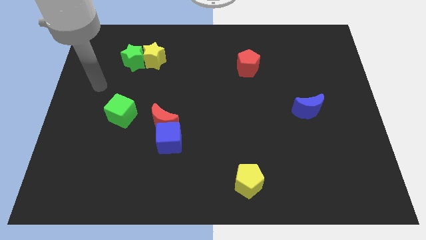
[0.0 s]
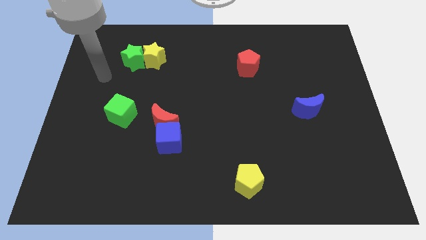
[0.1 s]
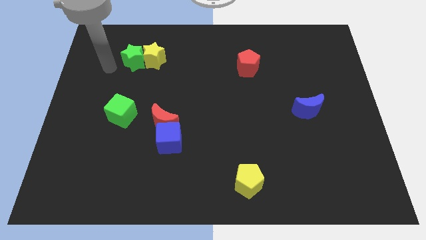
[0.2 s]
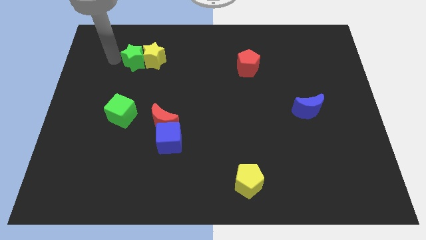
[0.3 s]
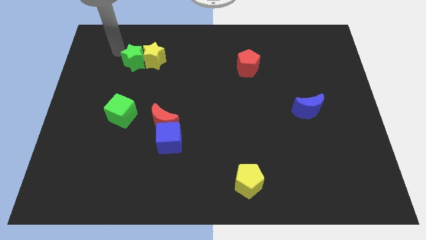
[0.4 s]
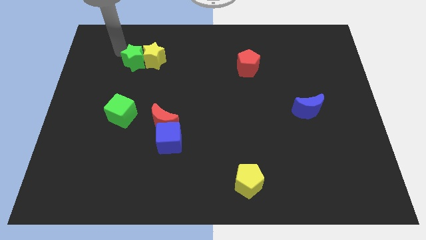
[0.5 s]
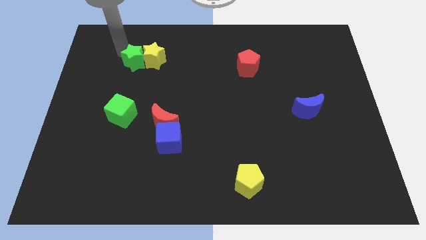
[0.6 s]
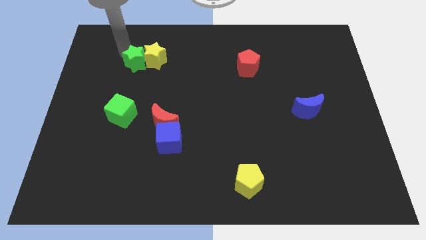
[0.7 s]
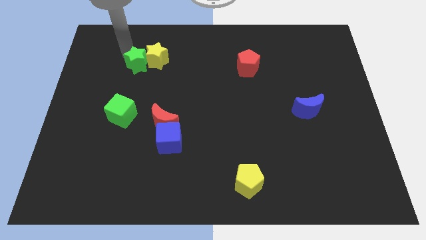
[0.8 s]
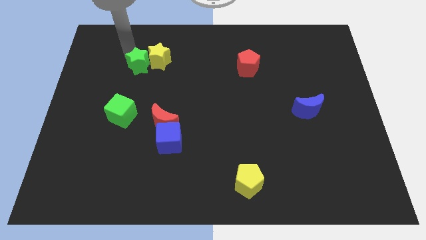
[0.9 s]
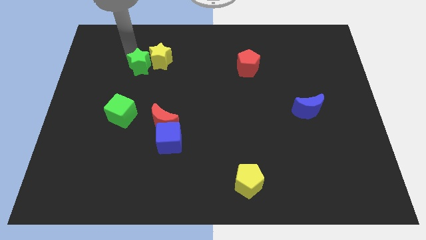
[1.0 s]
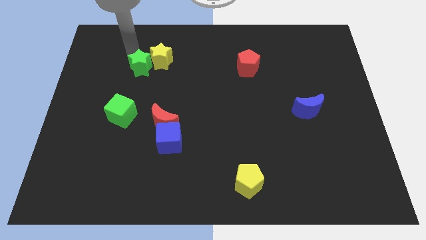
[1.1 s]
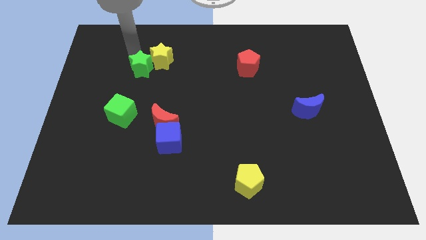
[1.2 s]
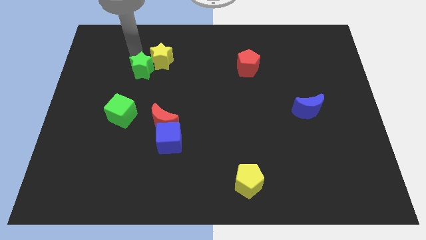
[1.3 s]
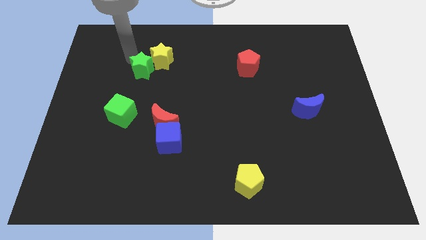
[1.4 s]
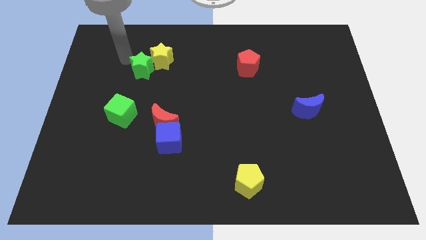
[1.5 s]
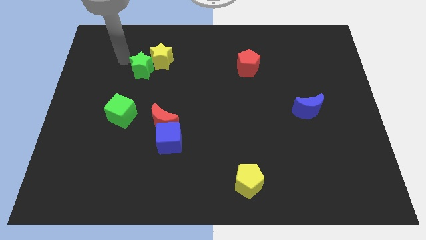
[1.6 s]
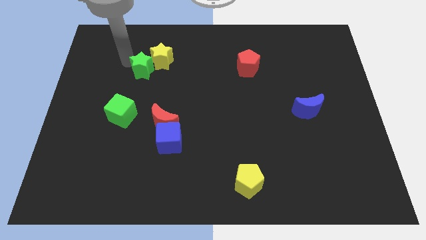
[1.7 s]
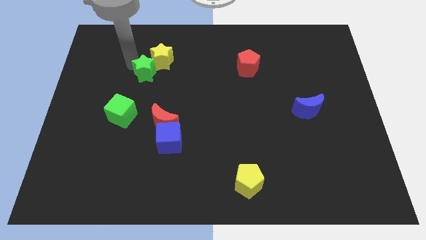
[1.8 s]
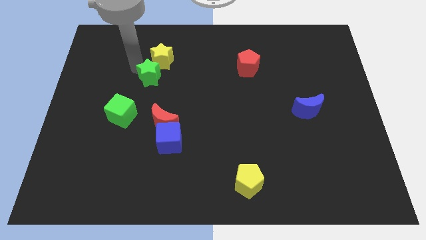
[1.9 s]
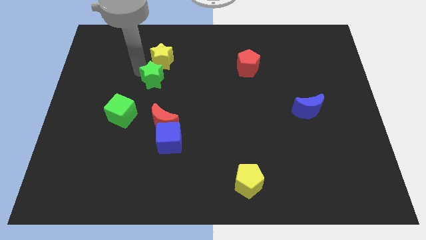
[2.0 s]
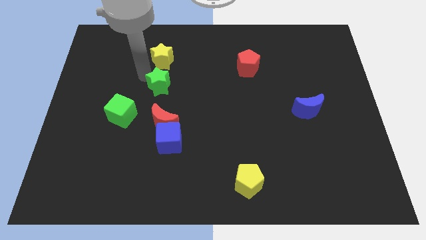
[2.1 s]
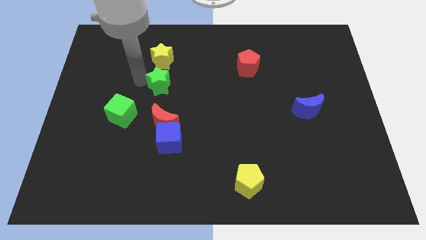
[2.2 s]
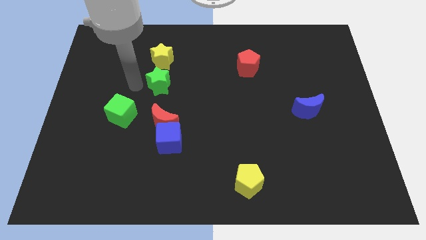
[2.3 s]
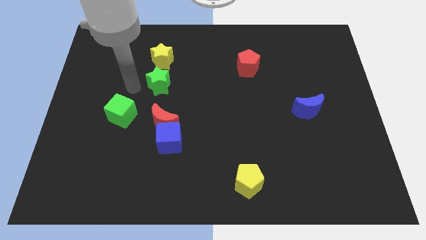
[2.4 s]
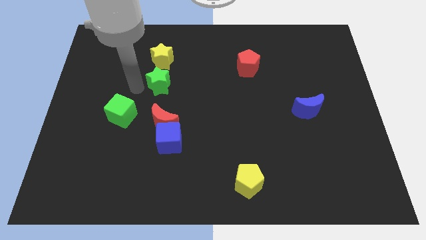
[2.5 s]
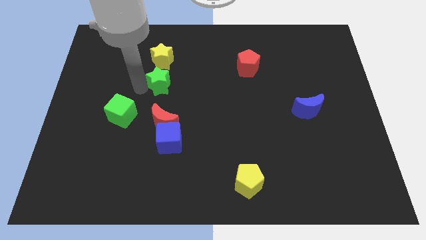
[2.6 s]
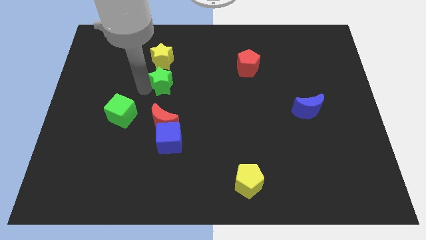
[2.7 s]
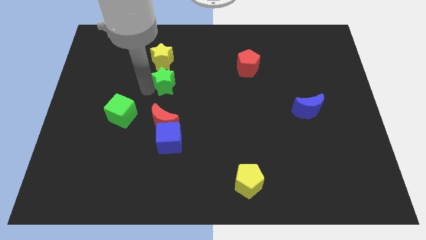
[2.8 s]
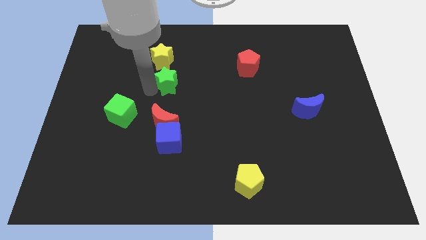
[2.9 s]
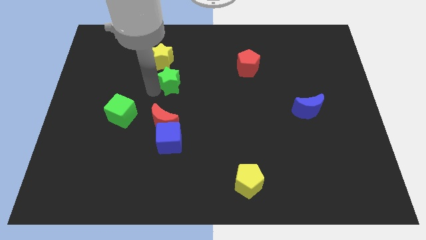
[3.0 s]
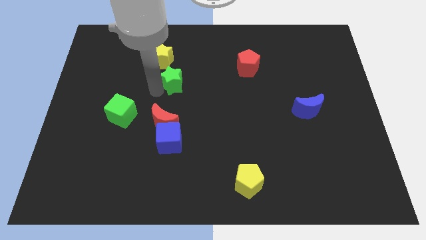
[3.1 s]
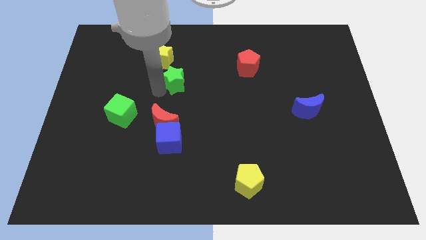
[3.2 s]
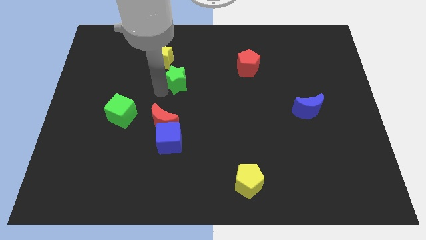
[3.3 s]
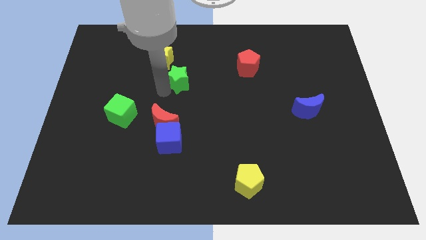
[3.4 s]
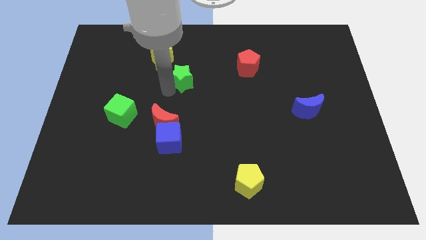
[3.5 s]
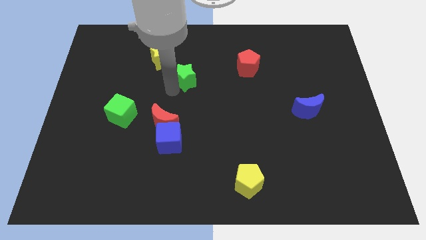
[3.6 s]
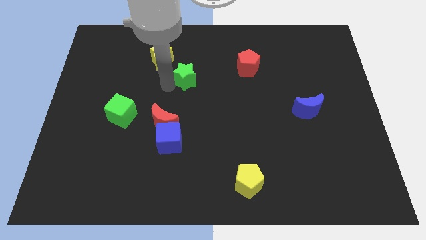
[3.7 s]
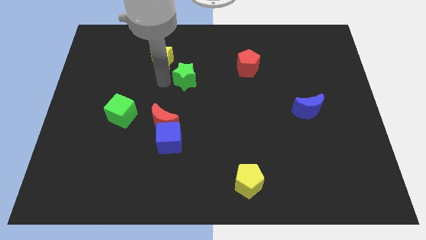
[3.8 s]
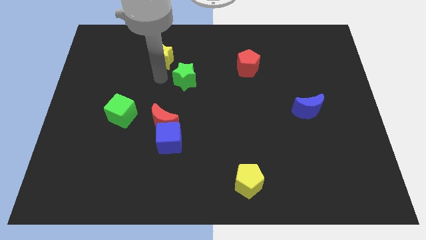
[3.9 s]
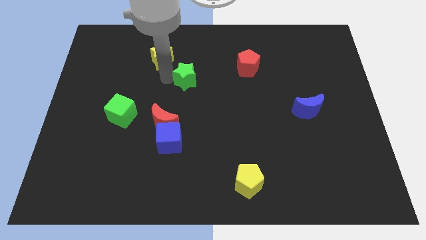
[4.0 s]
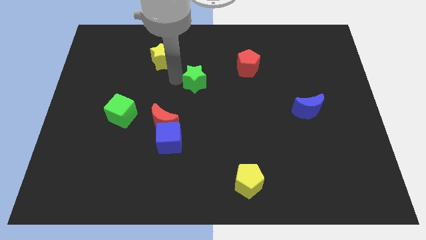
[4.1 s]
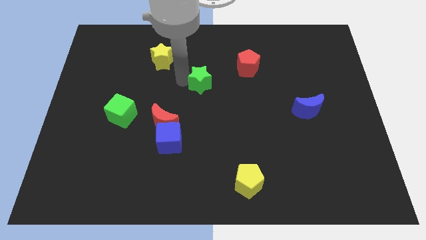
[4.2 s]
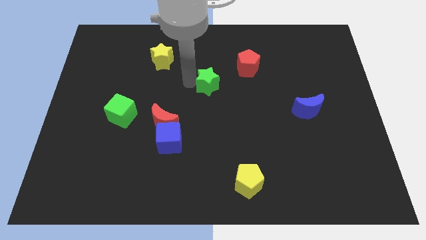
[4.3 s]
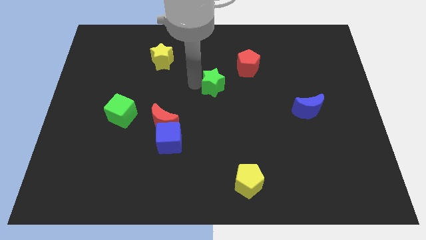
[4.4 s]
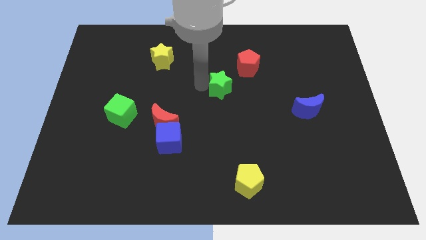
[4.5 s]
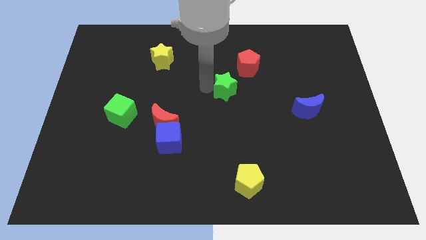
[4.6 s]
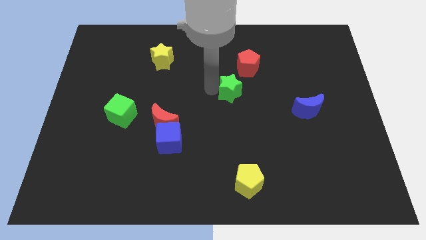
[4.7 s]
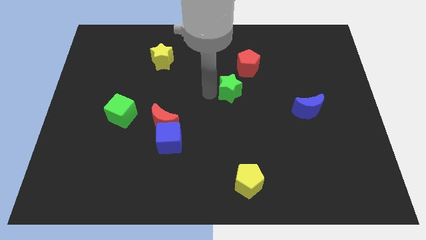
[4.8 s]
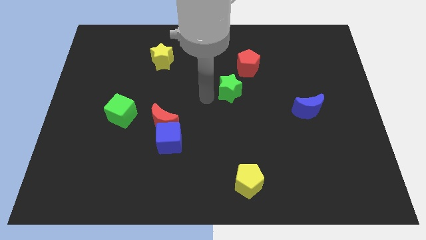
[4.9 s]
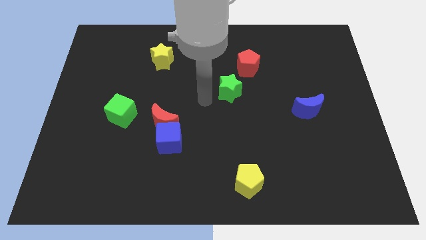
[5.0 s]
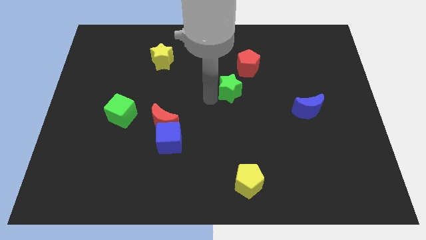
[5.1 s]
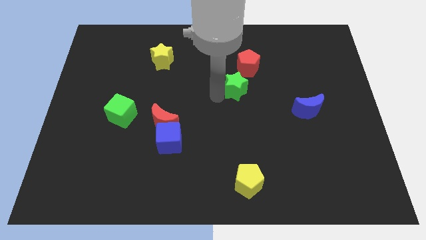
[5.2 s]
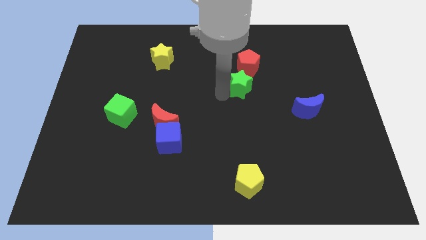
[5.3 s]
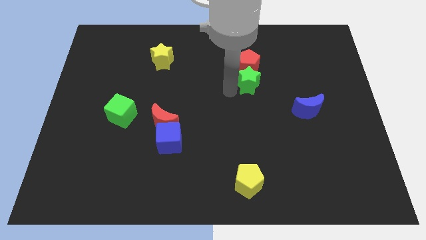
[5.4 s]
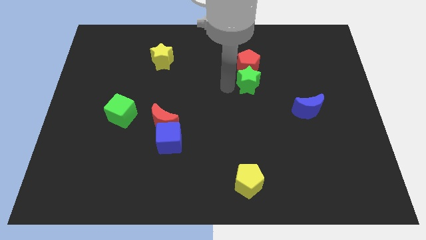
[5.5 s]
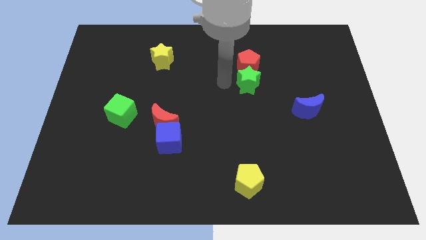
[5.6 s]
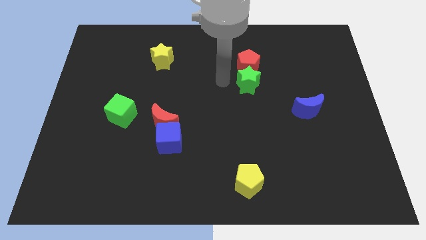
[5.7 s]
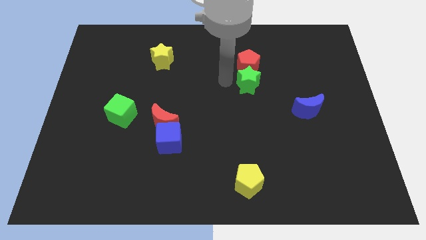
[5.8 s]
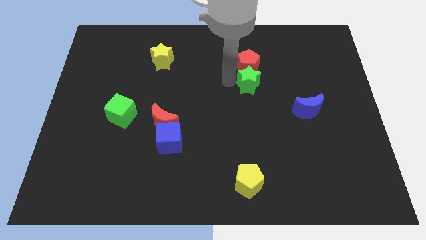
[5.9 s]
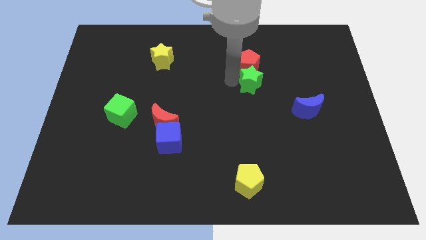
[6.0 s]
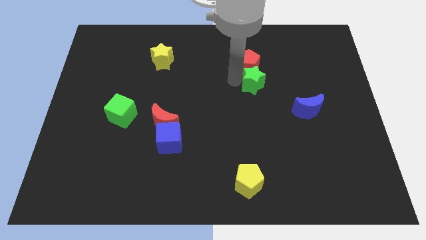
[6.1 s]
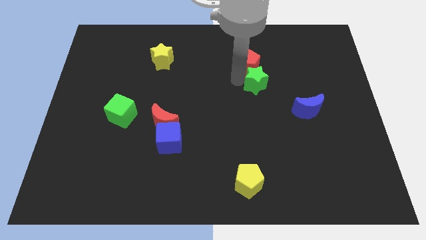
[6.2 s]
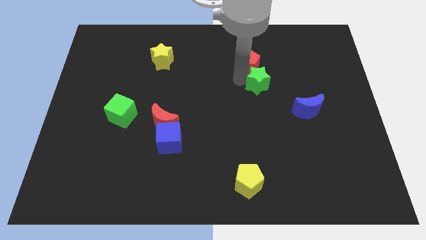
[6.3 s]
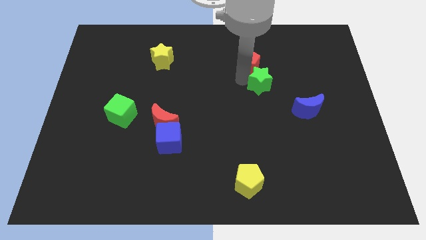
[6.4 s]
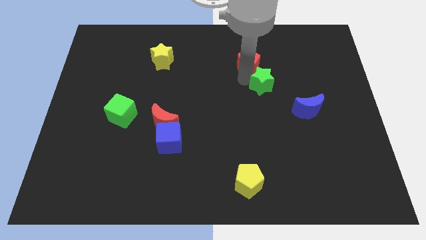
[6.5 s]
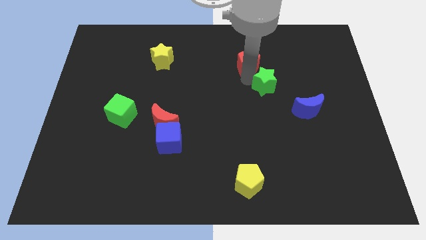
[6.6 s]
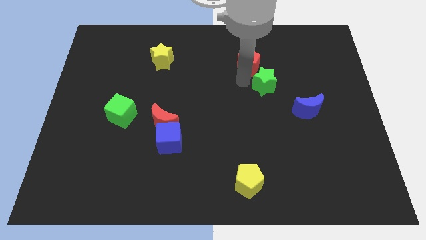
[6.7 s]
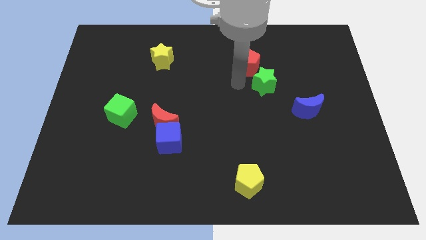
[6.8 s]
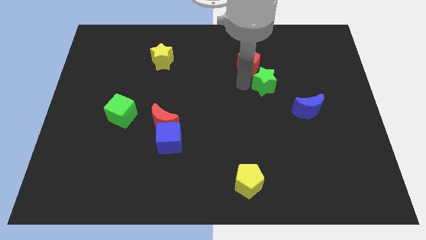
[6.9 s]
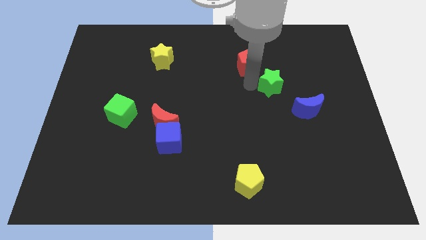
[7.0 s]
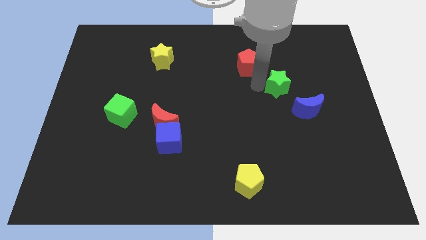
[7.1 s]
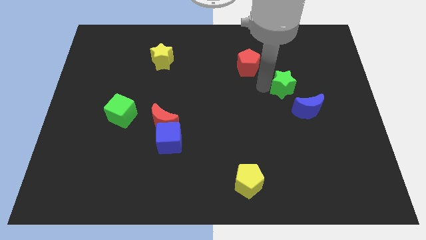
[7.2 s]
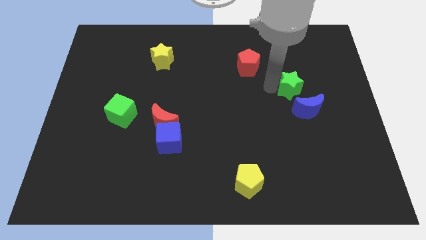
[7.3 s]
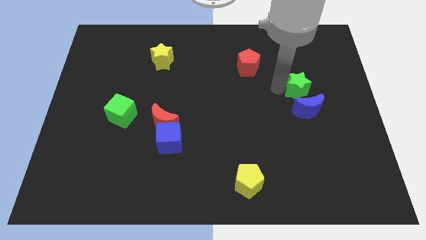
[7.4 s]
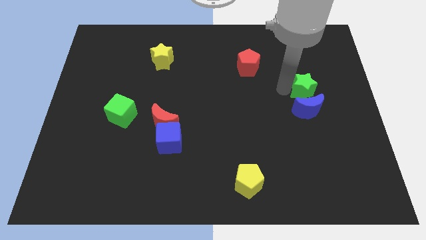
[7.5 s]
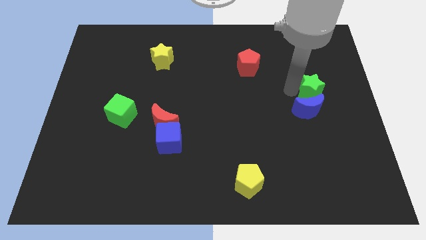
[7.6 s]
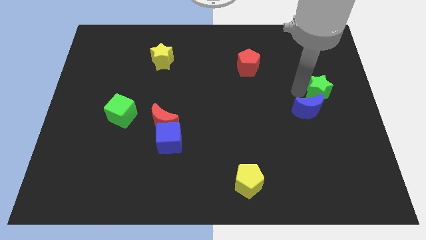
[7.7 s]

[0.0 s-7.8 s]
put the green star to the right side of the board
